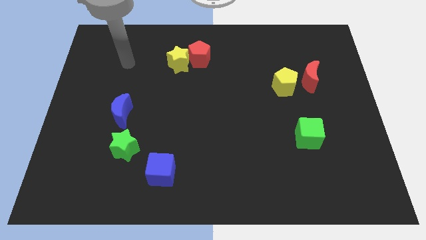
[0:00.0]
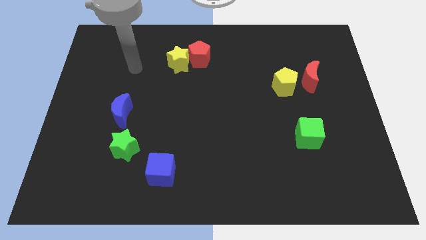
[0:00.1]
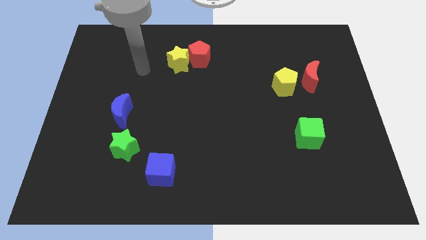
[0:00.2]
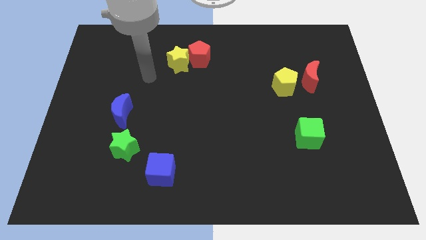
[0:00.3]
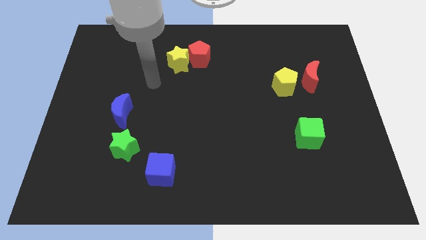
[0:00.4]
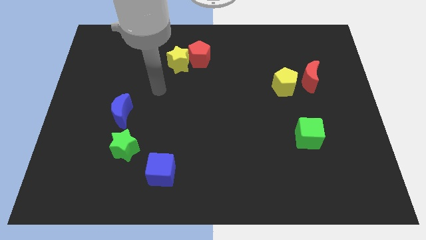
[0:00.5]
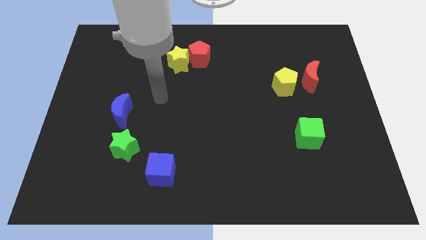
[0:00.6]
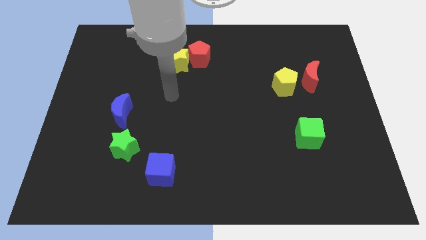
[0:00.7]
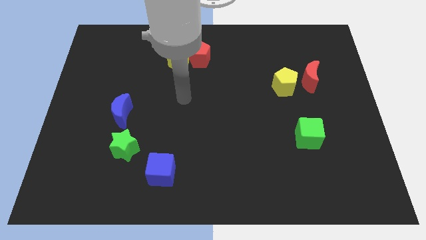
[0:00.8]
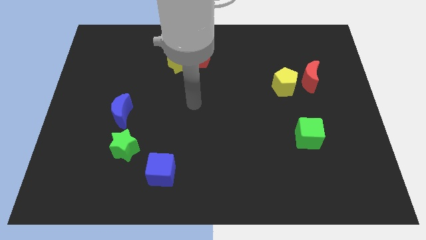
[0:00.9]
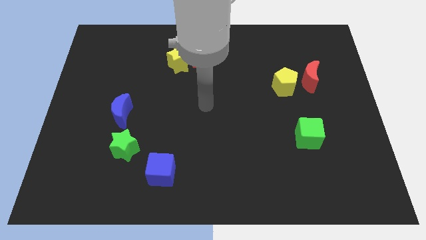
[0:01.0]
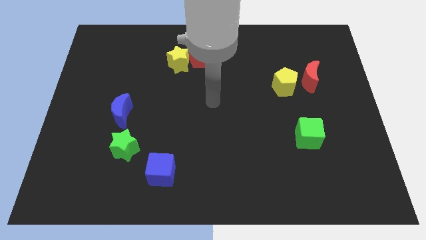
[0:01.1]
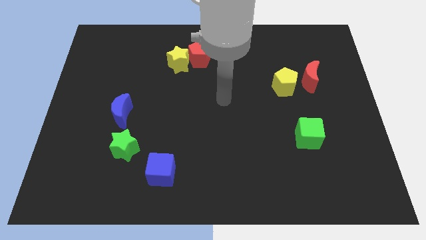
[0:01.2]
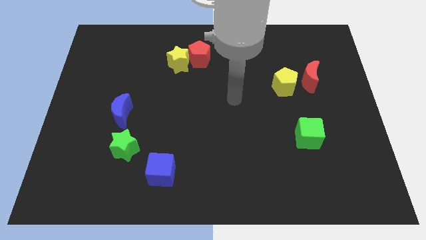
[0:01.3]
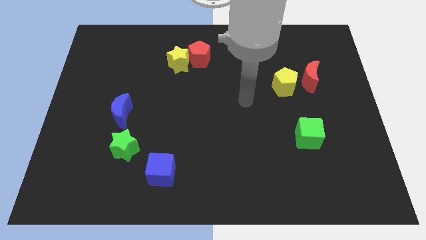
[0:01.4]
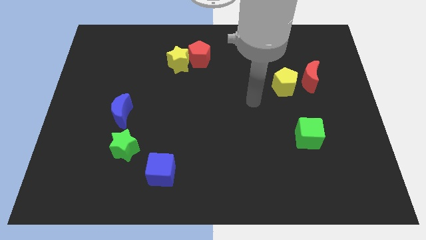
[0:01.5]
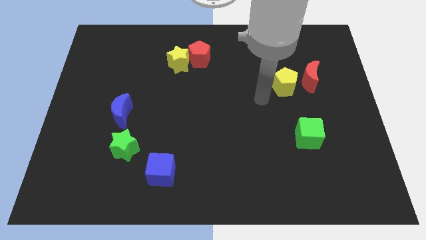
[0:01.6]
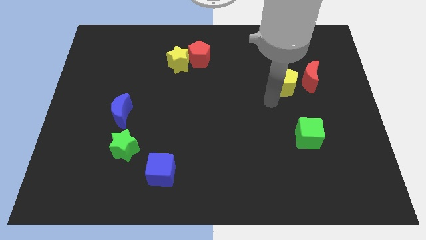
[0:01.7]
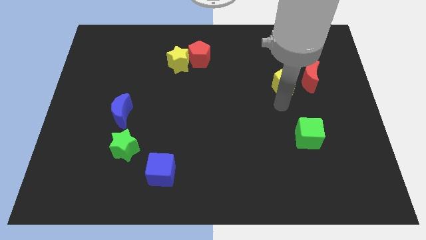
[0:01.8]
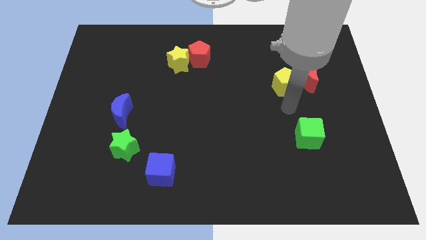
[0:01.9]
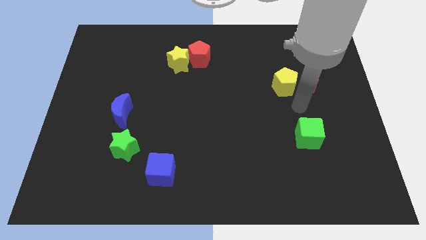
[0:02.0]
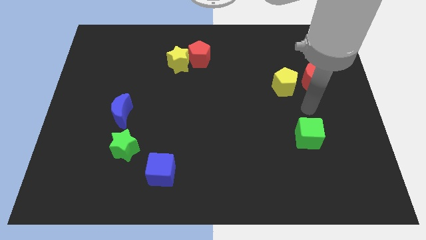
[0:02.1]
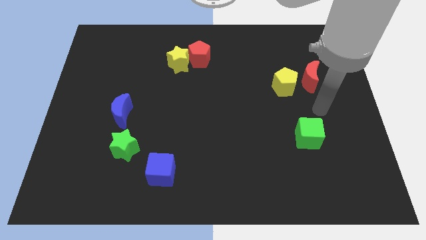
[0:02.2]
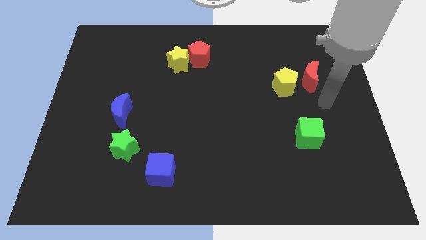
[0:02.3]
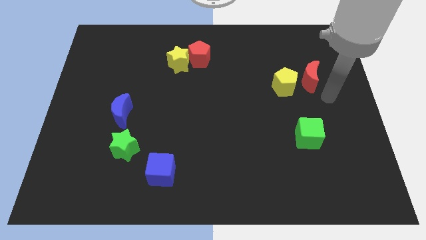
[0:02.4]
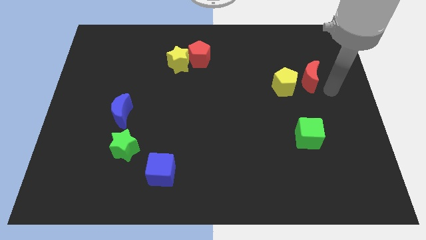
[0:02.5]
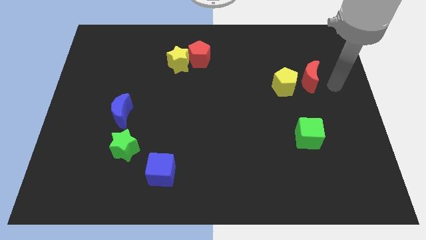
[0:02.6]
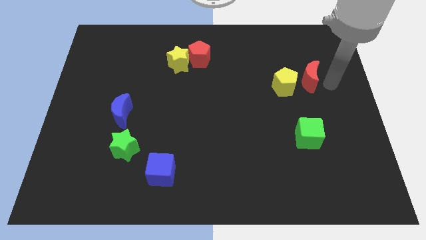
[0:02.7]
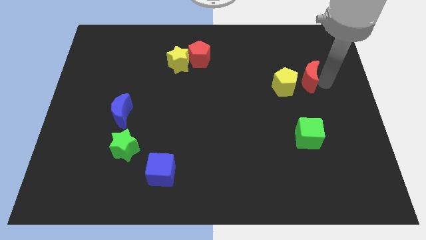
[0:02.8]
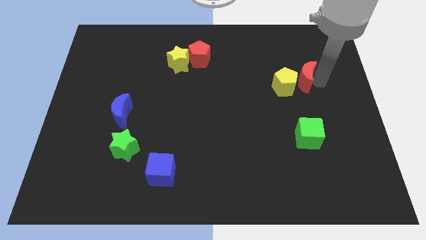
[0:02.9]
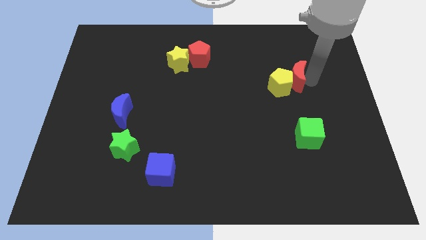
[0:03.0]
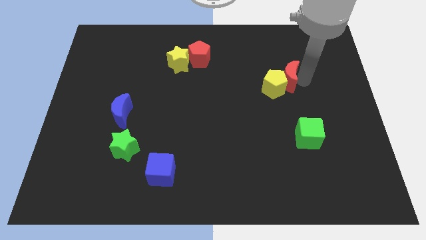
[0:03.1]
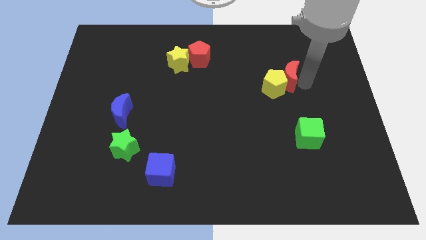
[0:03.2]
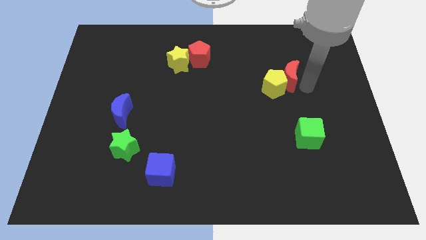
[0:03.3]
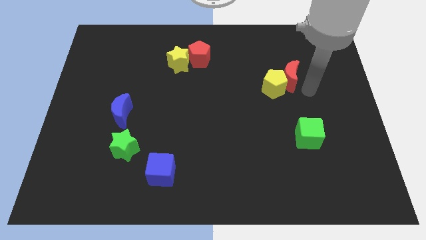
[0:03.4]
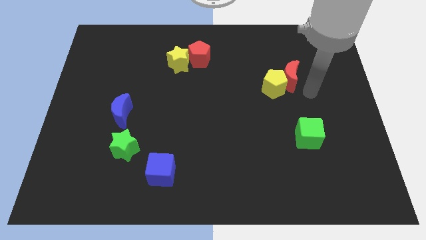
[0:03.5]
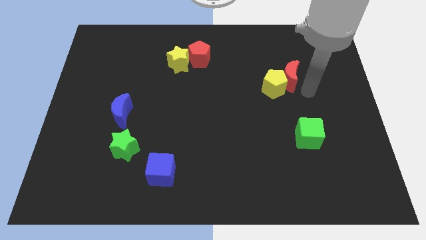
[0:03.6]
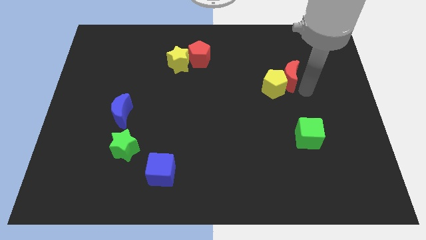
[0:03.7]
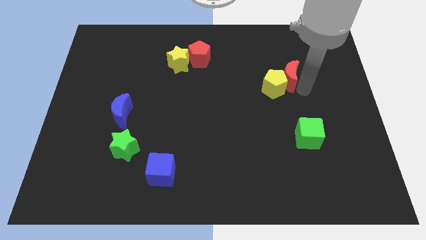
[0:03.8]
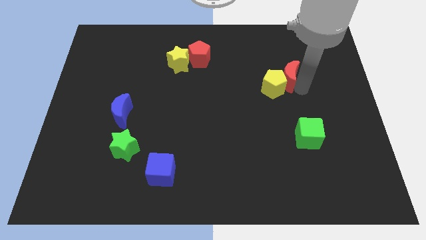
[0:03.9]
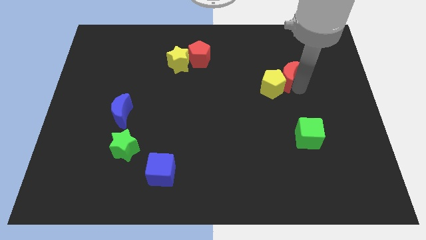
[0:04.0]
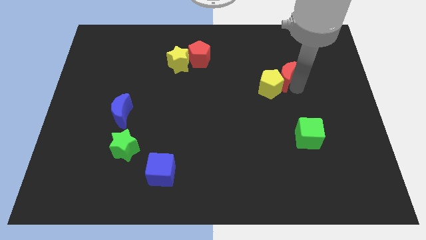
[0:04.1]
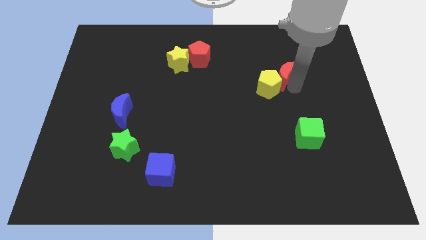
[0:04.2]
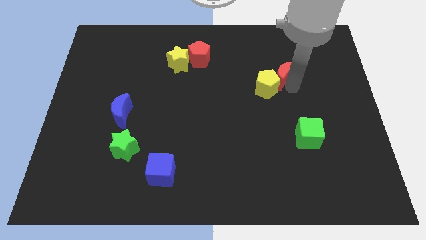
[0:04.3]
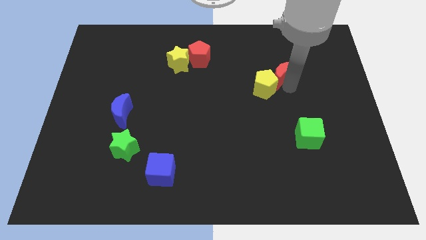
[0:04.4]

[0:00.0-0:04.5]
move the red moon left somewhat

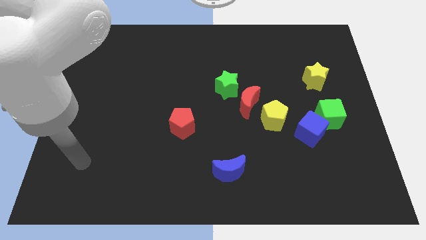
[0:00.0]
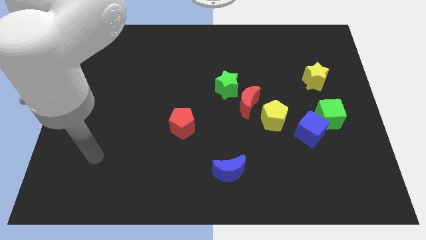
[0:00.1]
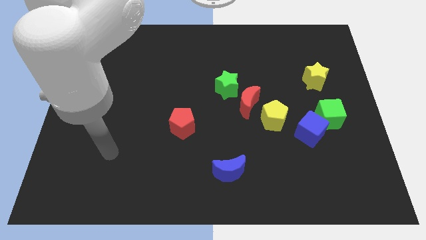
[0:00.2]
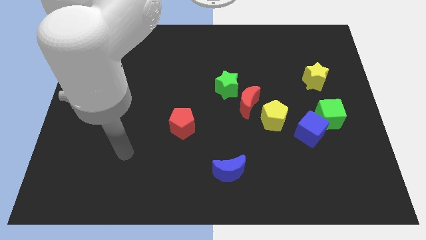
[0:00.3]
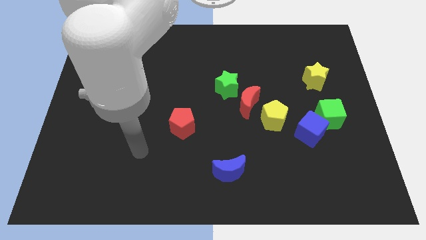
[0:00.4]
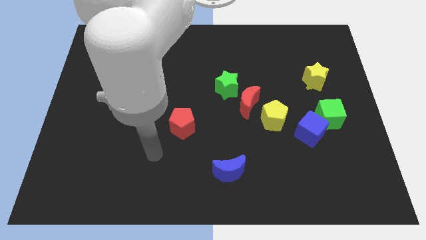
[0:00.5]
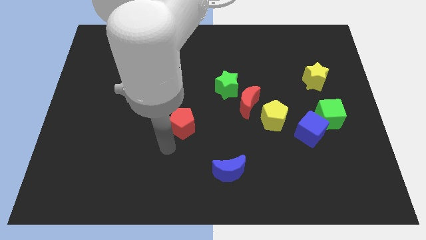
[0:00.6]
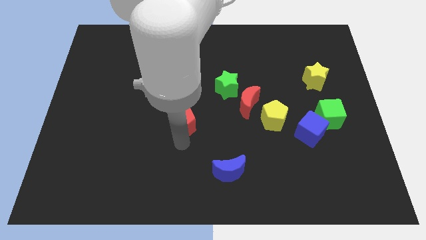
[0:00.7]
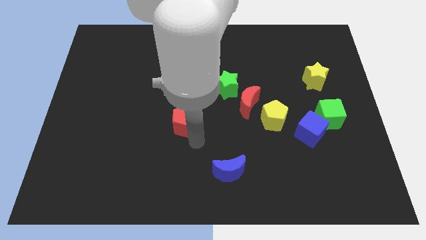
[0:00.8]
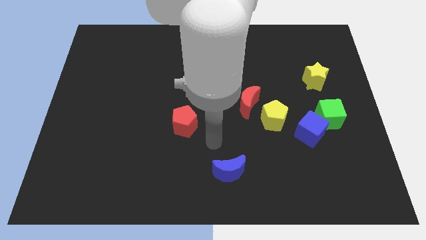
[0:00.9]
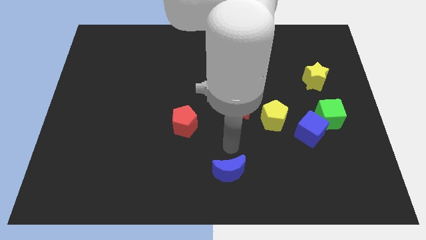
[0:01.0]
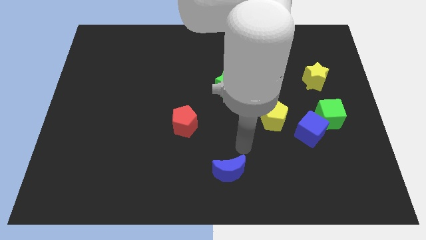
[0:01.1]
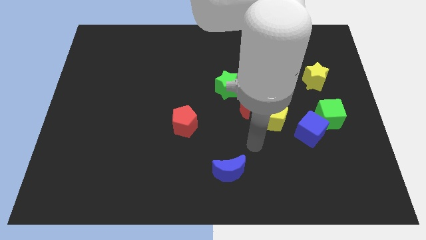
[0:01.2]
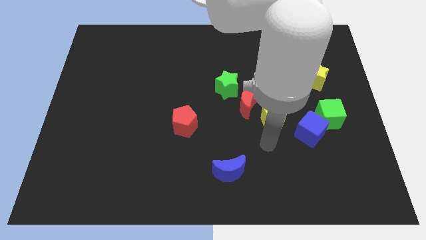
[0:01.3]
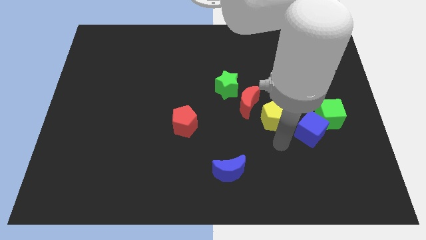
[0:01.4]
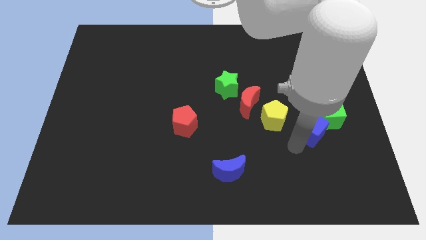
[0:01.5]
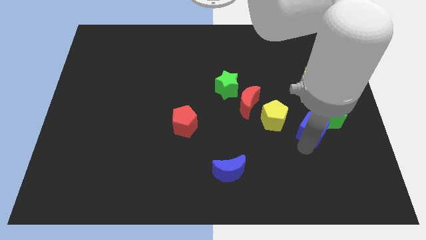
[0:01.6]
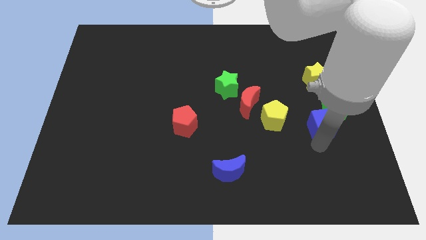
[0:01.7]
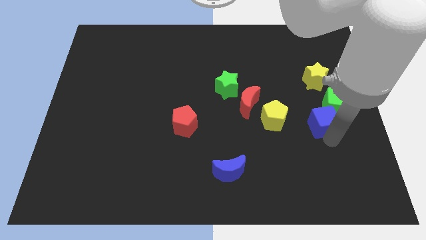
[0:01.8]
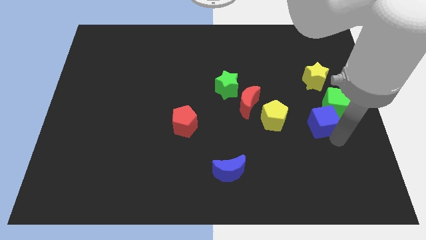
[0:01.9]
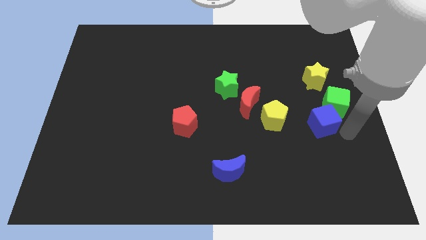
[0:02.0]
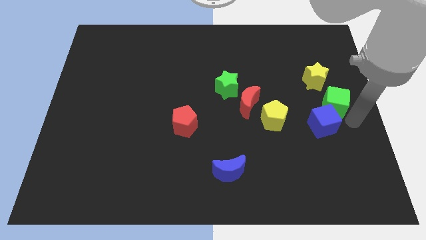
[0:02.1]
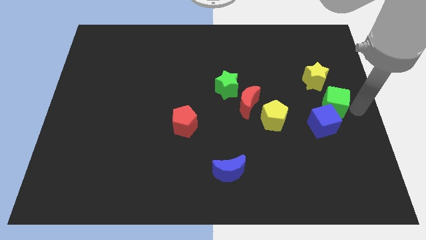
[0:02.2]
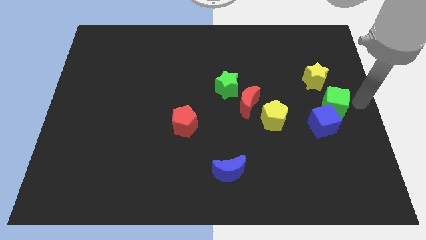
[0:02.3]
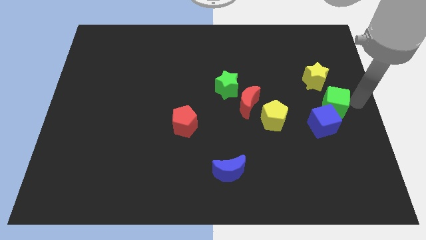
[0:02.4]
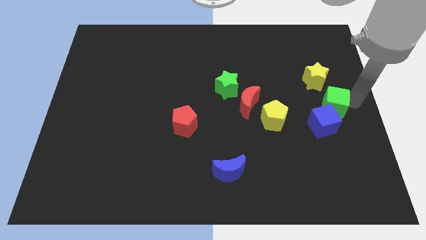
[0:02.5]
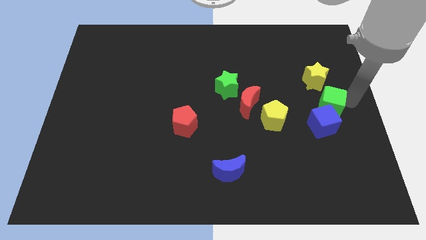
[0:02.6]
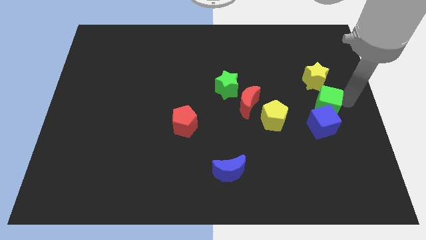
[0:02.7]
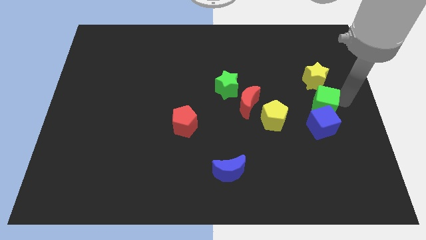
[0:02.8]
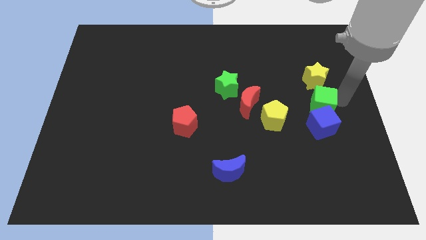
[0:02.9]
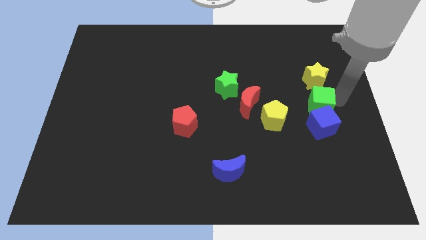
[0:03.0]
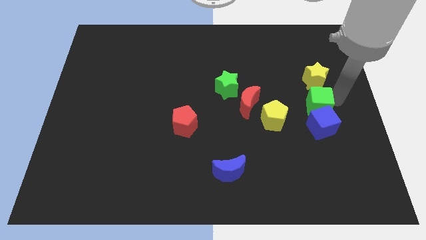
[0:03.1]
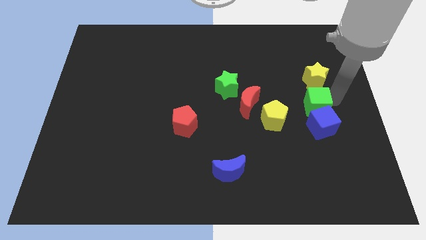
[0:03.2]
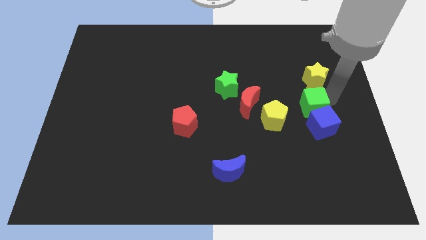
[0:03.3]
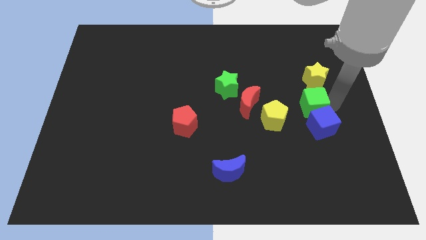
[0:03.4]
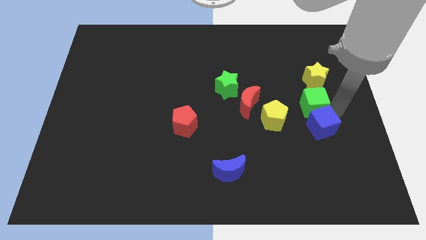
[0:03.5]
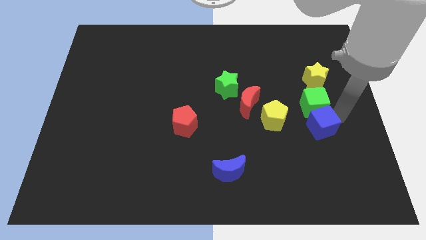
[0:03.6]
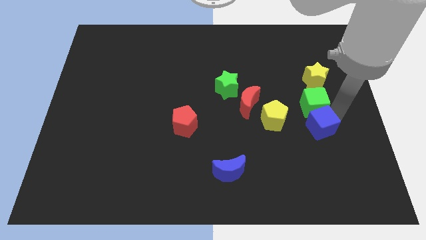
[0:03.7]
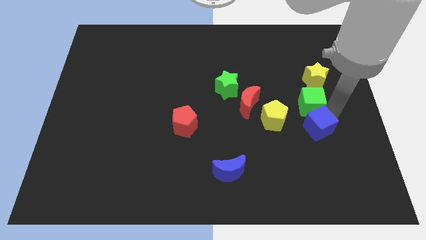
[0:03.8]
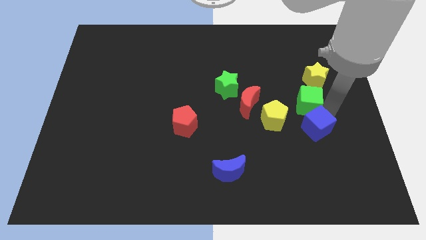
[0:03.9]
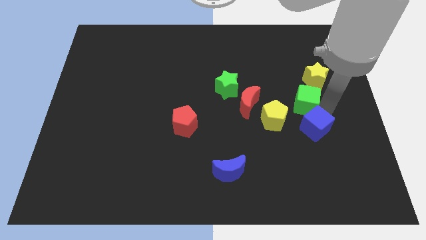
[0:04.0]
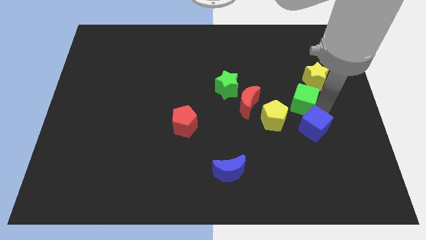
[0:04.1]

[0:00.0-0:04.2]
slide the green cube upwards and then to the left a little
